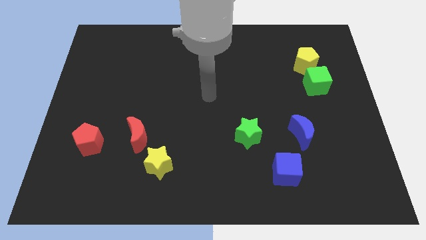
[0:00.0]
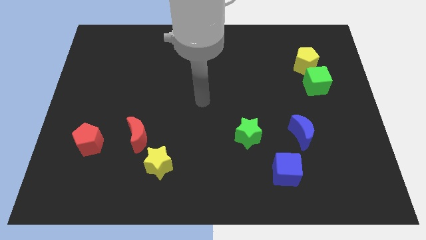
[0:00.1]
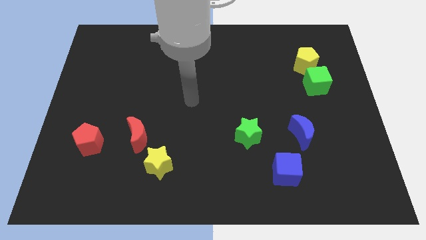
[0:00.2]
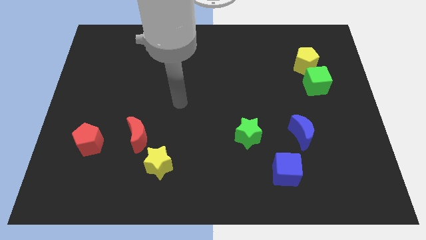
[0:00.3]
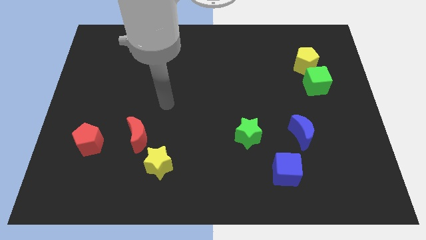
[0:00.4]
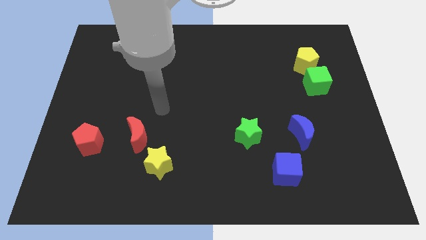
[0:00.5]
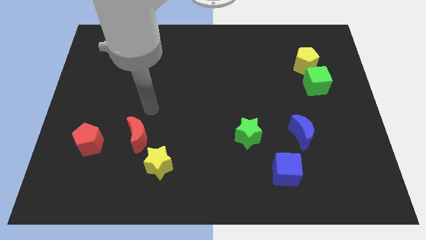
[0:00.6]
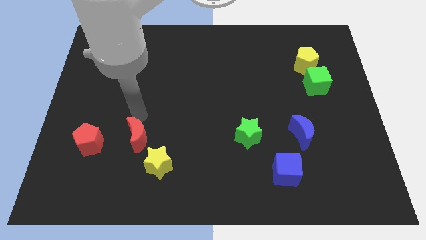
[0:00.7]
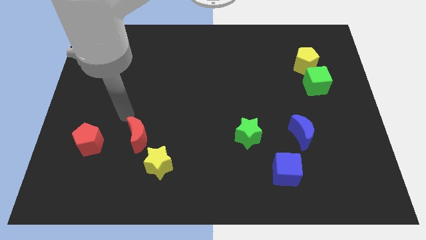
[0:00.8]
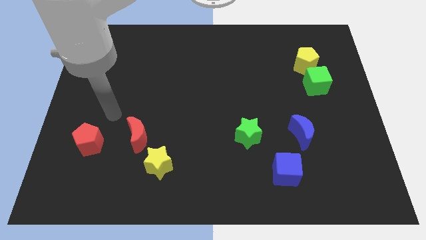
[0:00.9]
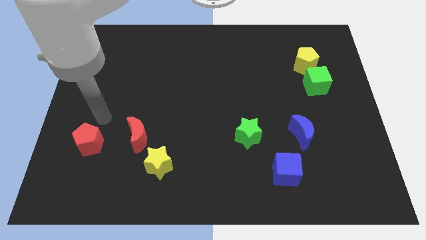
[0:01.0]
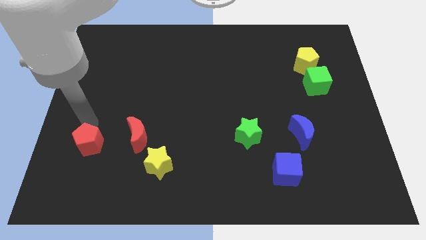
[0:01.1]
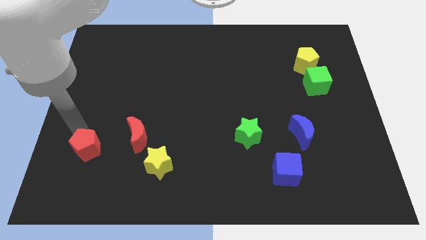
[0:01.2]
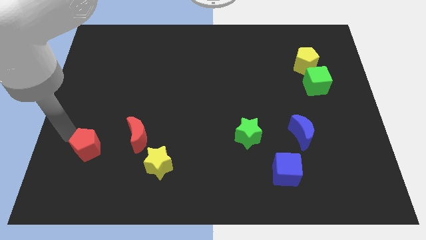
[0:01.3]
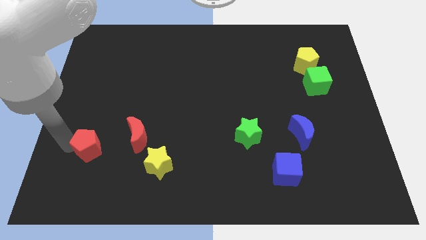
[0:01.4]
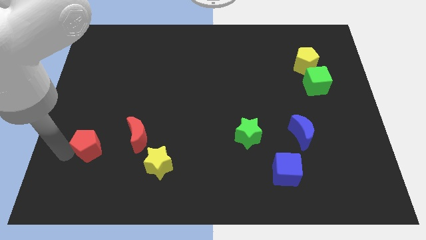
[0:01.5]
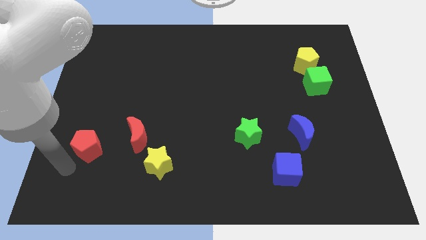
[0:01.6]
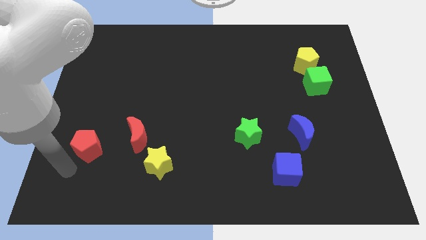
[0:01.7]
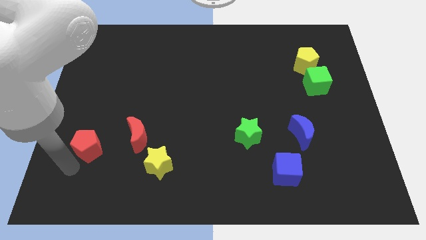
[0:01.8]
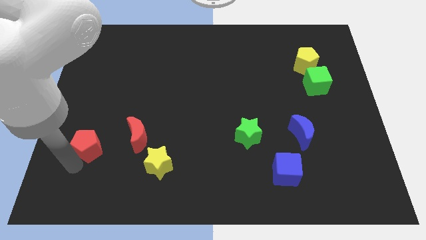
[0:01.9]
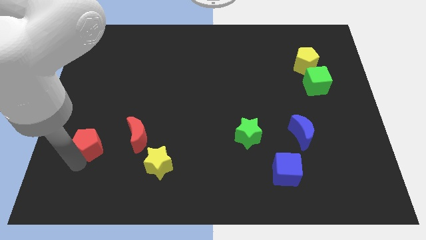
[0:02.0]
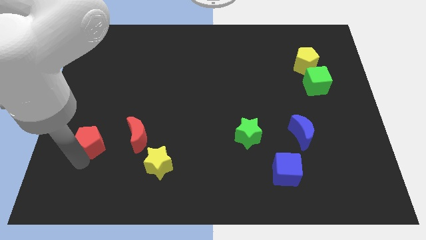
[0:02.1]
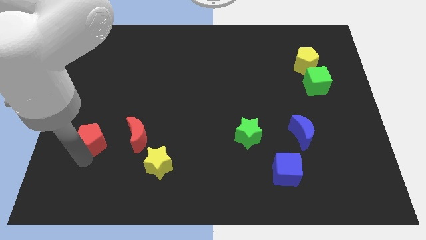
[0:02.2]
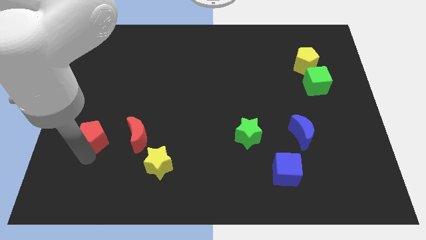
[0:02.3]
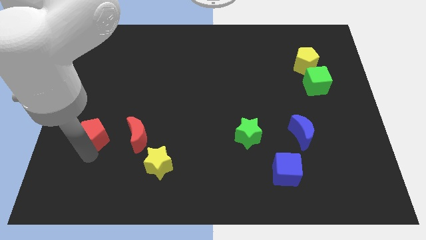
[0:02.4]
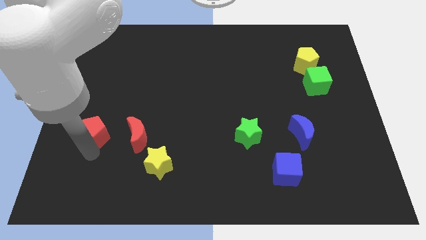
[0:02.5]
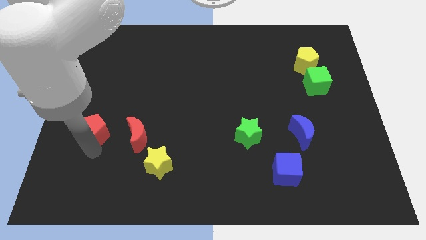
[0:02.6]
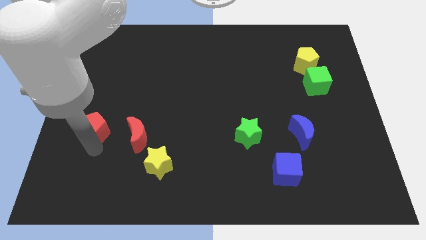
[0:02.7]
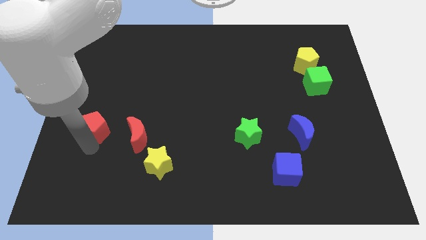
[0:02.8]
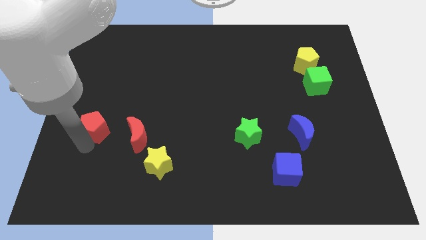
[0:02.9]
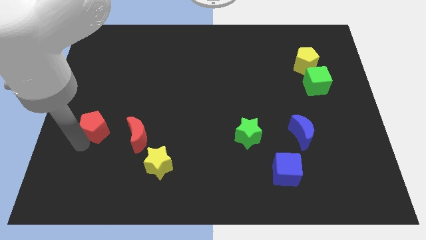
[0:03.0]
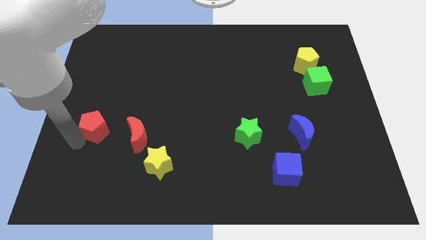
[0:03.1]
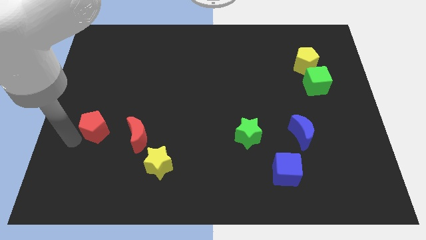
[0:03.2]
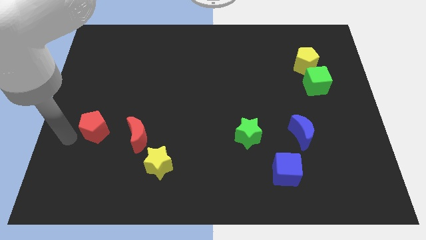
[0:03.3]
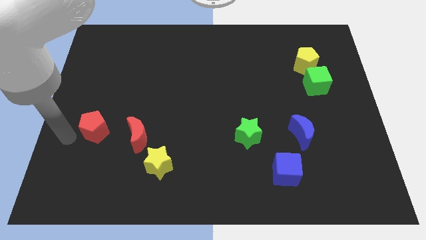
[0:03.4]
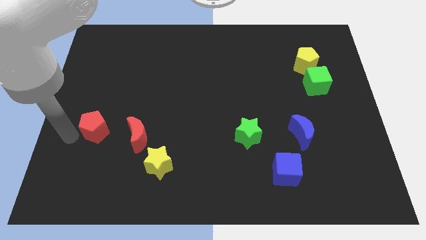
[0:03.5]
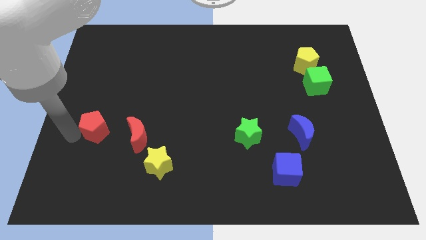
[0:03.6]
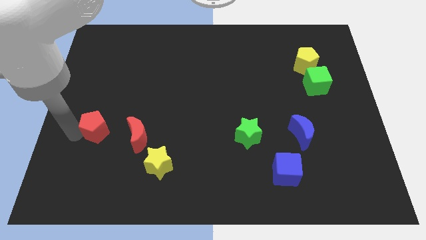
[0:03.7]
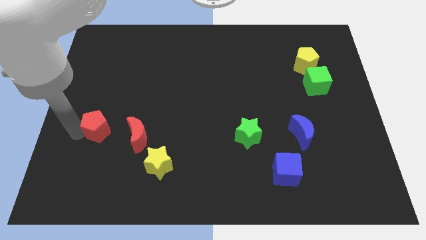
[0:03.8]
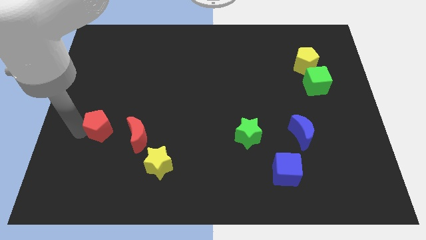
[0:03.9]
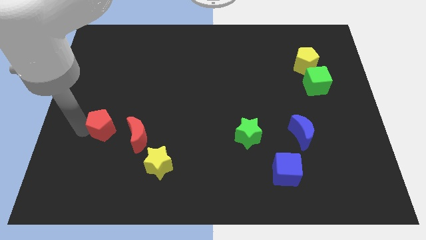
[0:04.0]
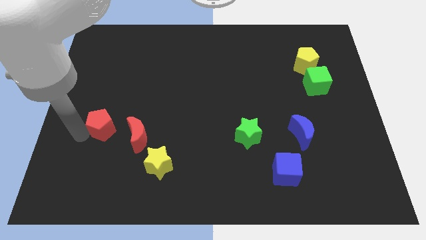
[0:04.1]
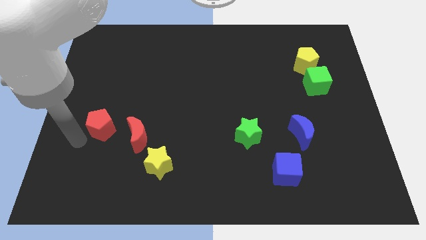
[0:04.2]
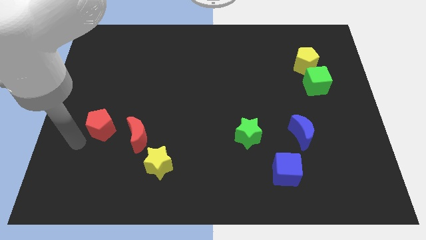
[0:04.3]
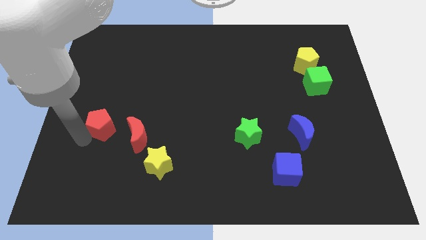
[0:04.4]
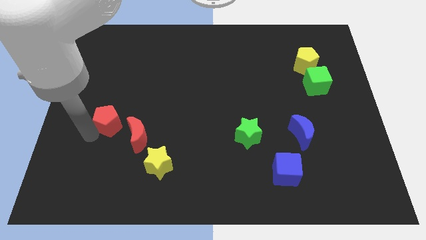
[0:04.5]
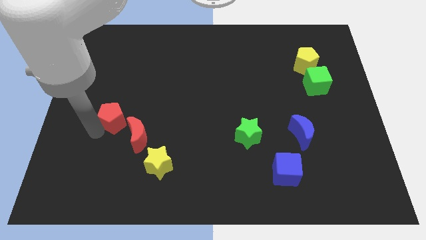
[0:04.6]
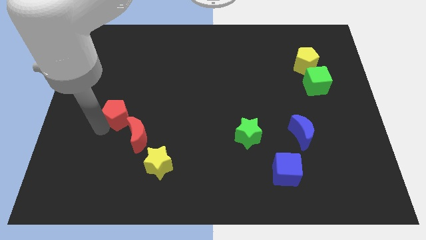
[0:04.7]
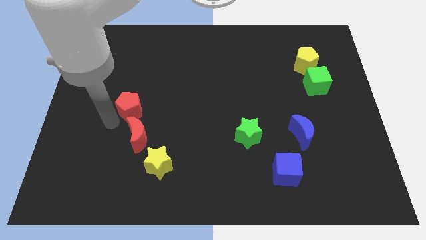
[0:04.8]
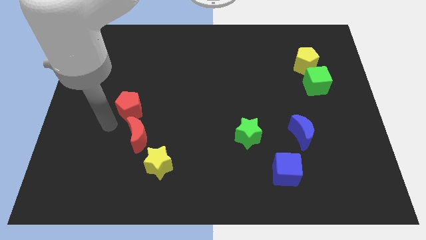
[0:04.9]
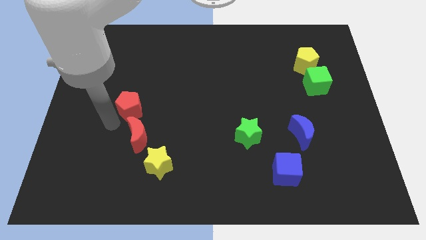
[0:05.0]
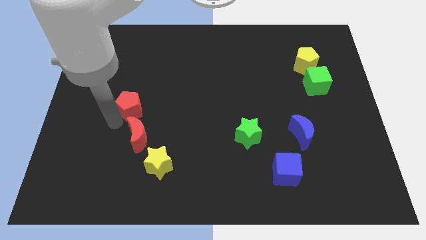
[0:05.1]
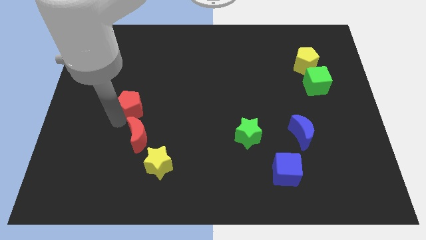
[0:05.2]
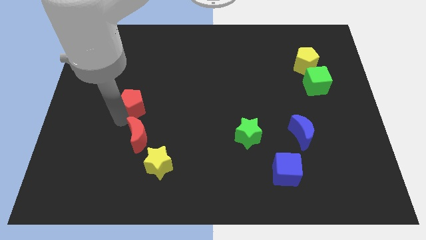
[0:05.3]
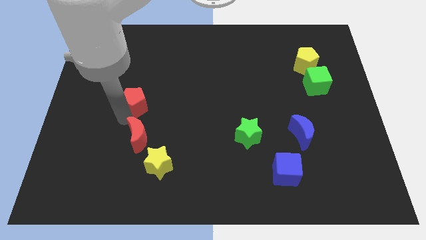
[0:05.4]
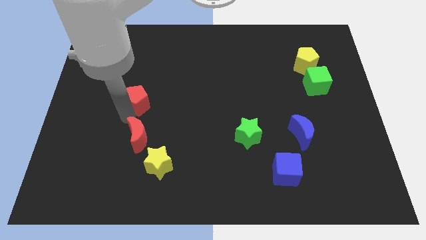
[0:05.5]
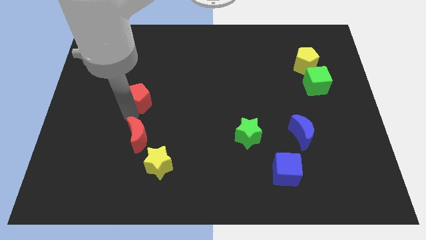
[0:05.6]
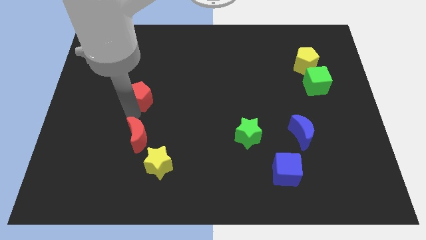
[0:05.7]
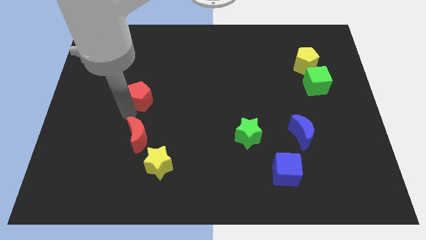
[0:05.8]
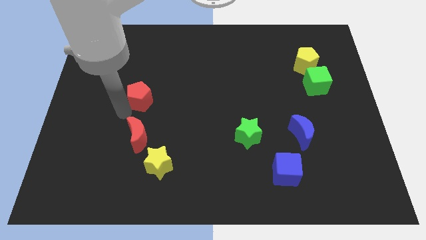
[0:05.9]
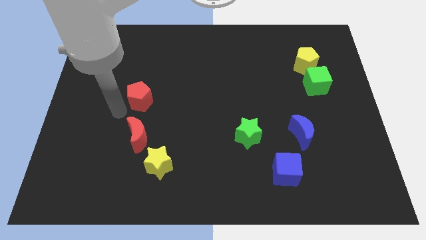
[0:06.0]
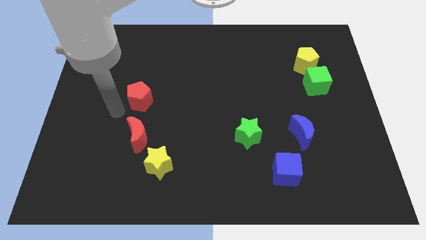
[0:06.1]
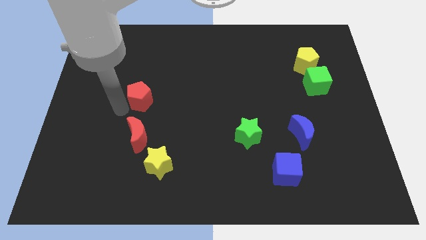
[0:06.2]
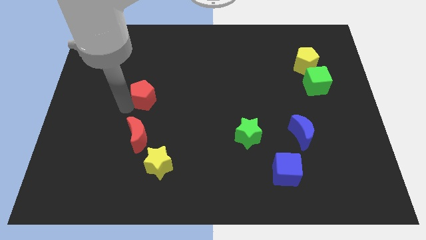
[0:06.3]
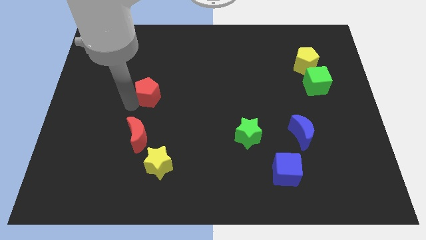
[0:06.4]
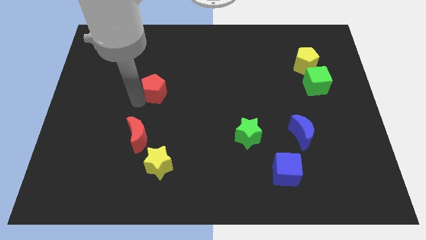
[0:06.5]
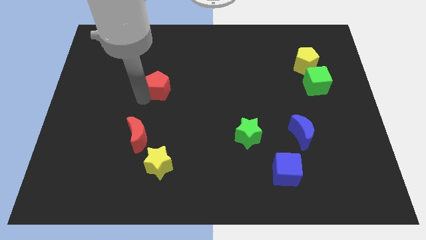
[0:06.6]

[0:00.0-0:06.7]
slide the red pentagon up and then right

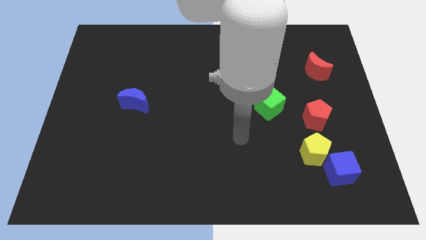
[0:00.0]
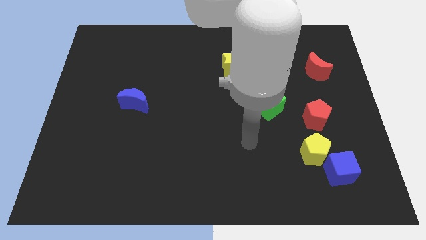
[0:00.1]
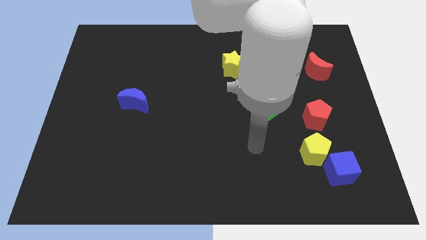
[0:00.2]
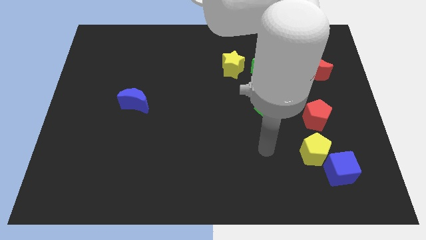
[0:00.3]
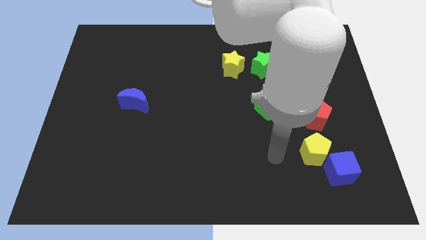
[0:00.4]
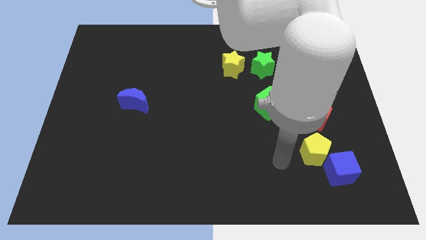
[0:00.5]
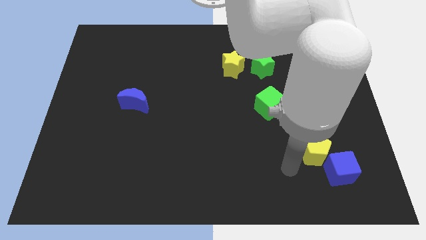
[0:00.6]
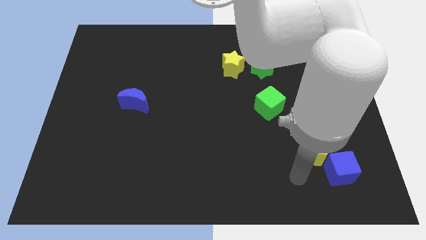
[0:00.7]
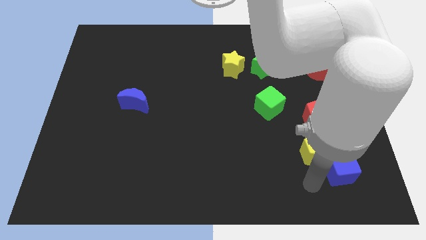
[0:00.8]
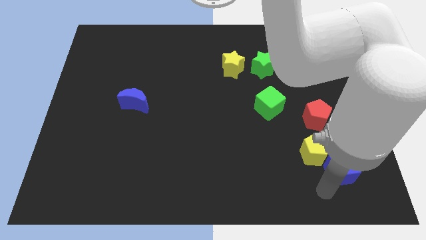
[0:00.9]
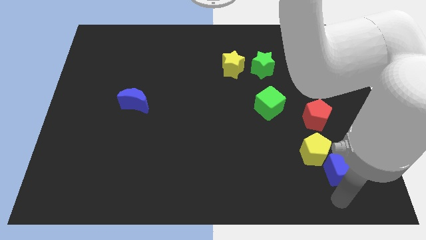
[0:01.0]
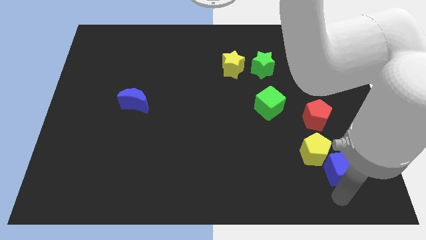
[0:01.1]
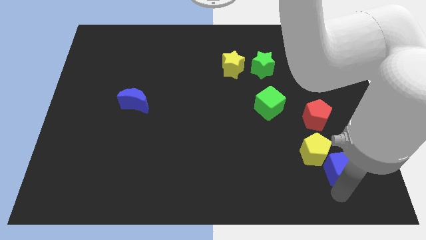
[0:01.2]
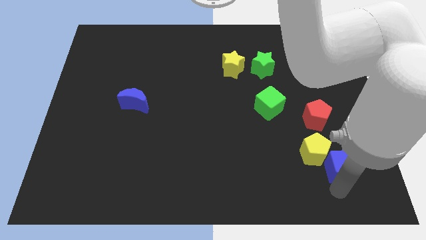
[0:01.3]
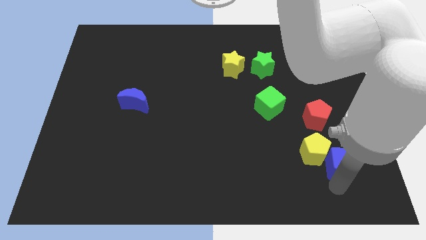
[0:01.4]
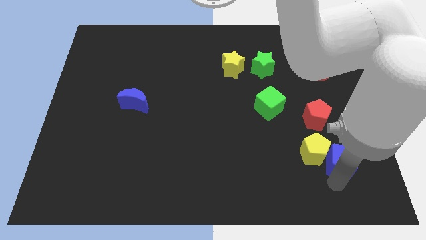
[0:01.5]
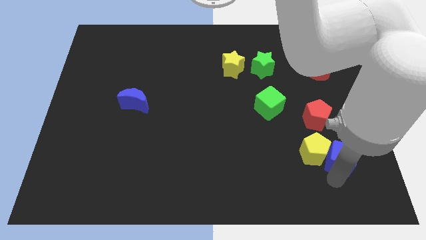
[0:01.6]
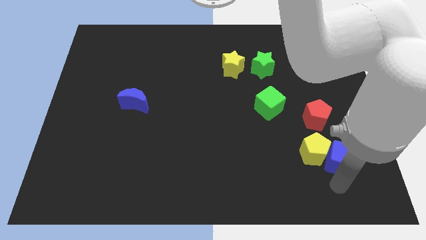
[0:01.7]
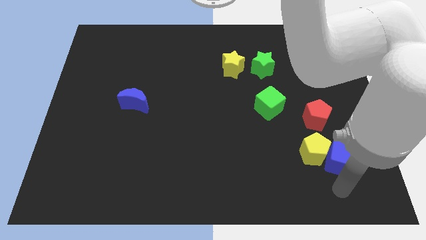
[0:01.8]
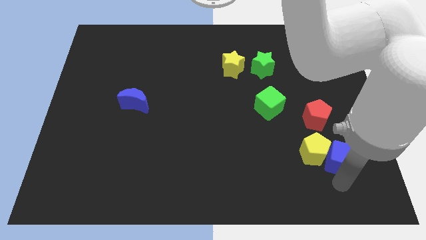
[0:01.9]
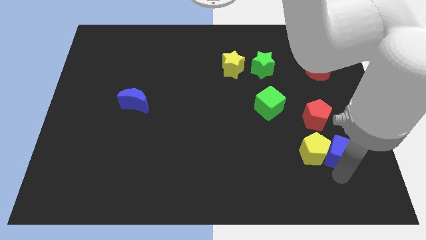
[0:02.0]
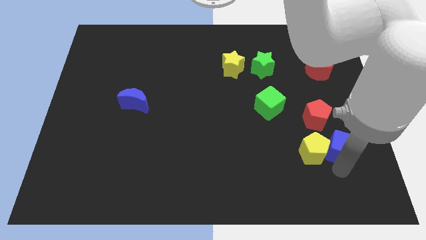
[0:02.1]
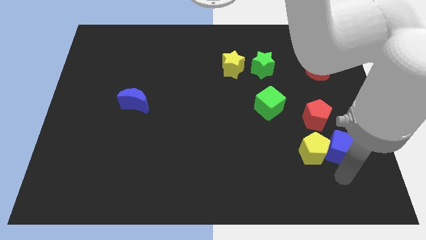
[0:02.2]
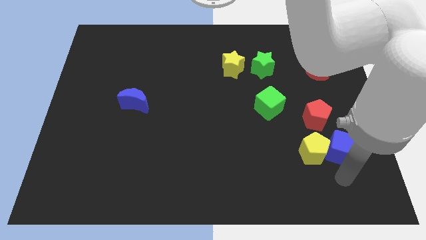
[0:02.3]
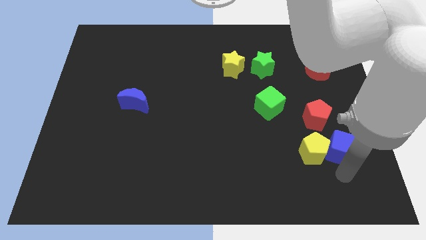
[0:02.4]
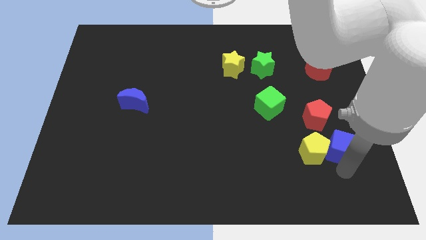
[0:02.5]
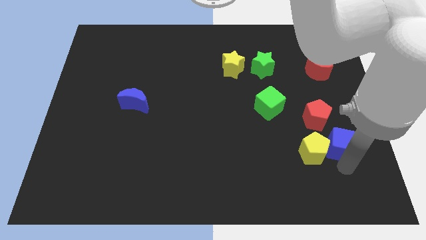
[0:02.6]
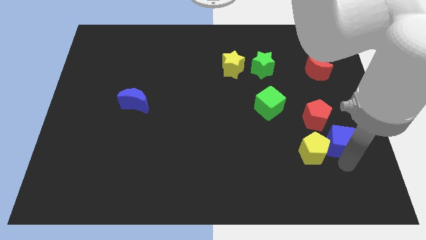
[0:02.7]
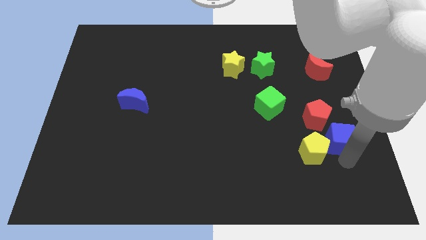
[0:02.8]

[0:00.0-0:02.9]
move the blue cube a little bit upwards
